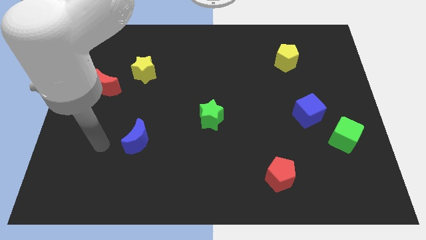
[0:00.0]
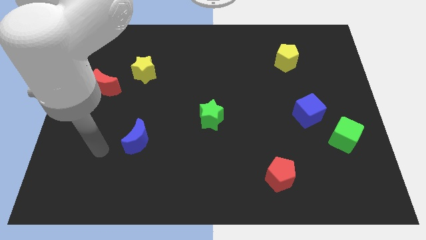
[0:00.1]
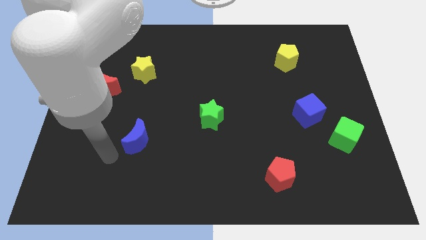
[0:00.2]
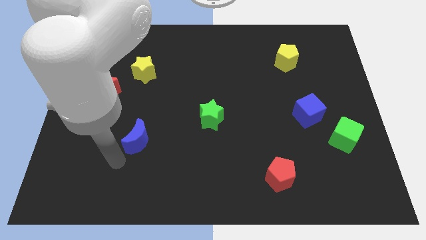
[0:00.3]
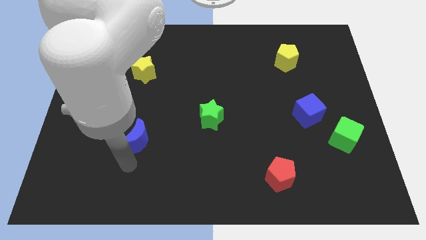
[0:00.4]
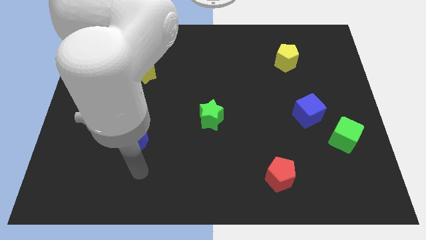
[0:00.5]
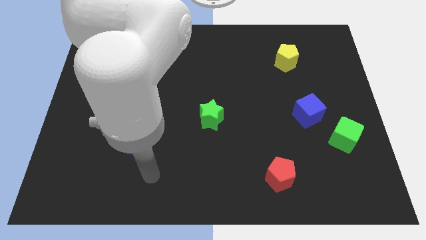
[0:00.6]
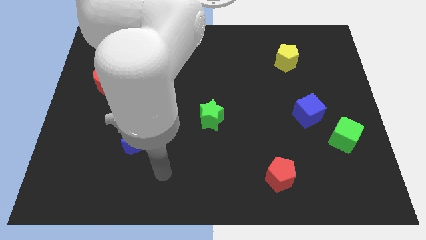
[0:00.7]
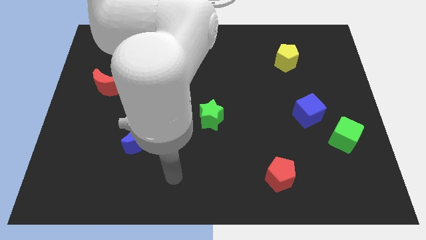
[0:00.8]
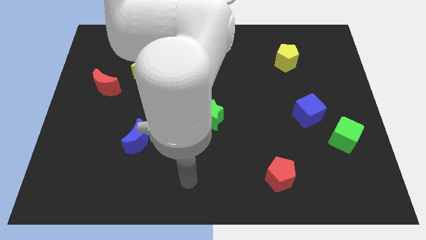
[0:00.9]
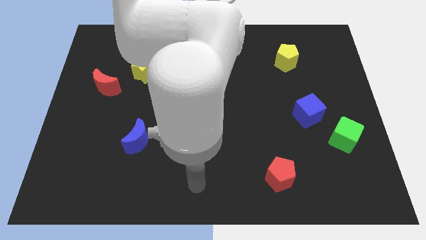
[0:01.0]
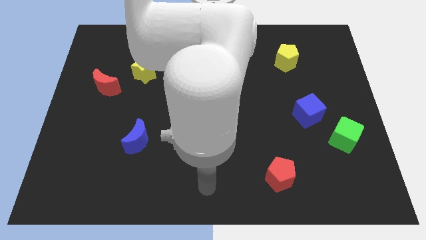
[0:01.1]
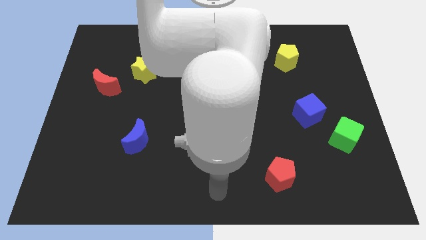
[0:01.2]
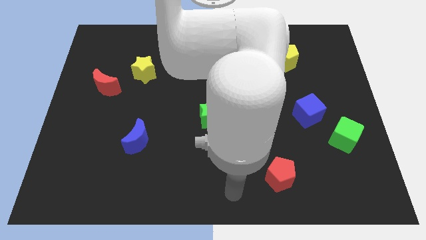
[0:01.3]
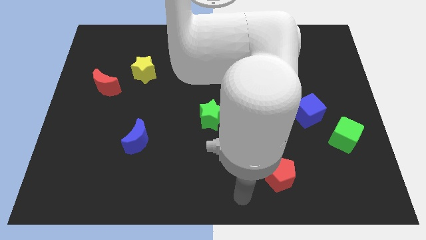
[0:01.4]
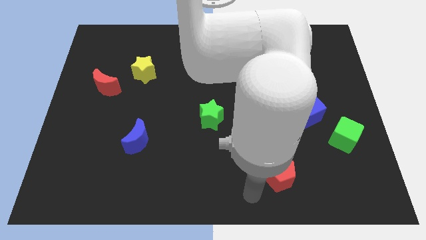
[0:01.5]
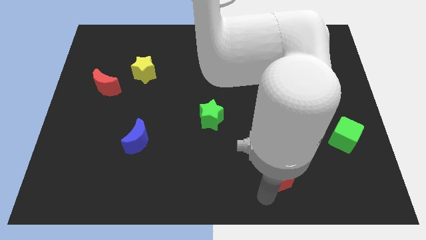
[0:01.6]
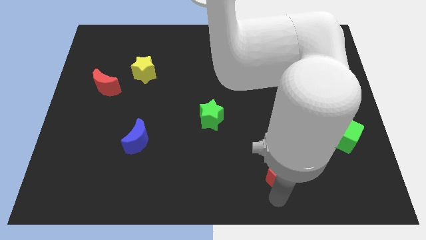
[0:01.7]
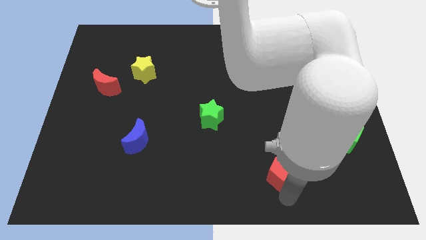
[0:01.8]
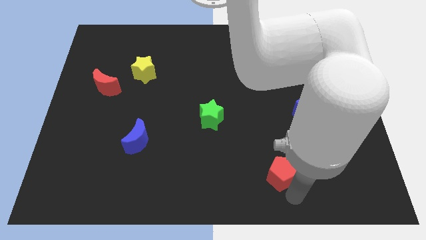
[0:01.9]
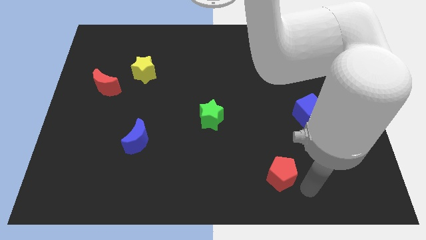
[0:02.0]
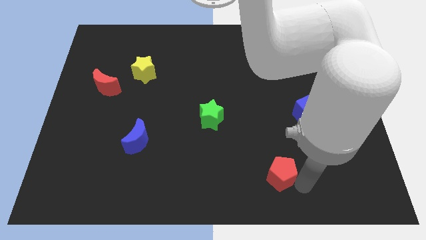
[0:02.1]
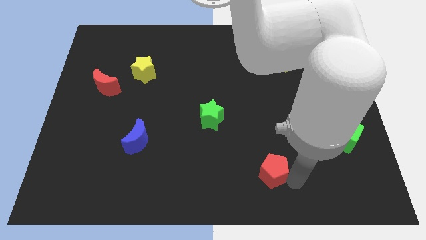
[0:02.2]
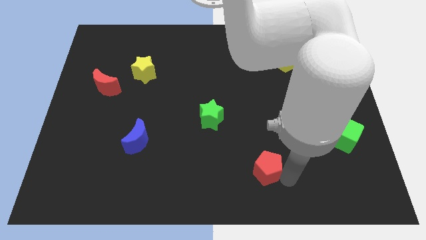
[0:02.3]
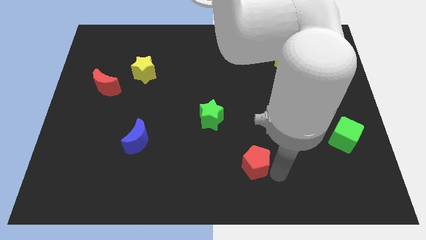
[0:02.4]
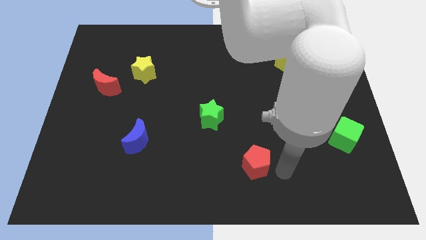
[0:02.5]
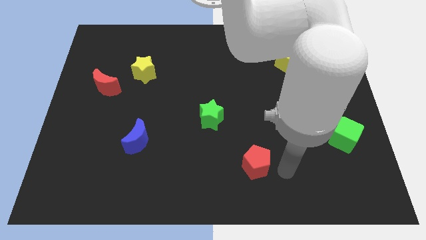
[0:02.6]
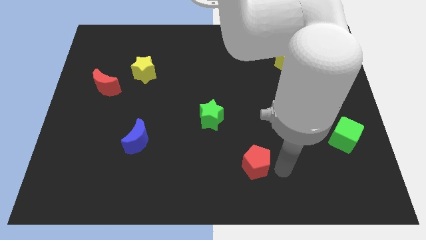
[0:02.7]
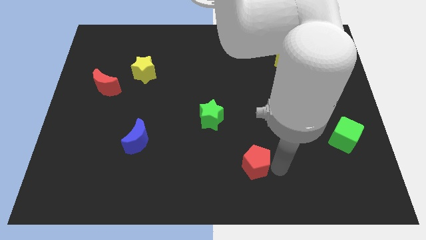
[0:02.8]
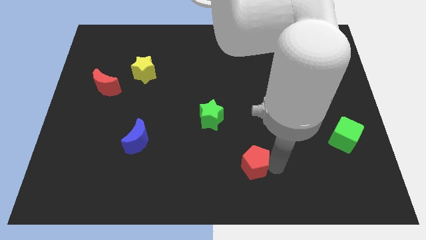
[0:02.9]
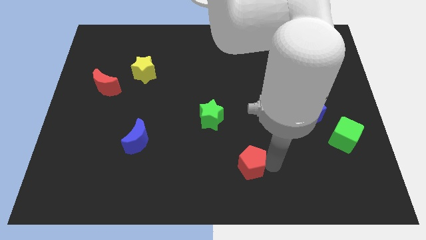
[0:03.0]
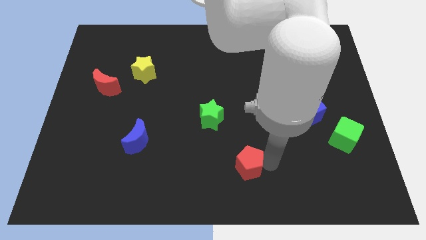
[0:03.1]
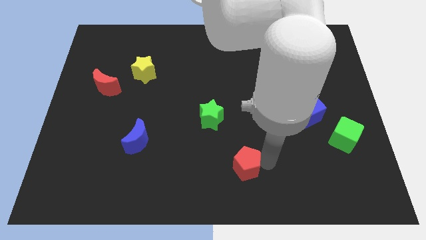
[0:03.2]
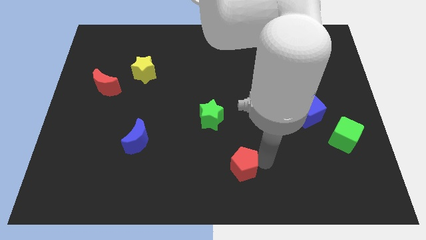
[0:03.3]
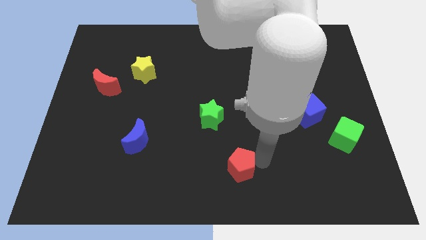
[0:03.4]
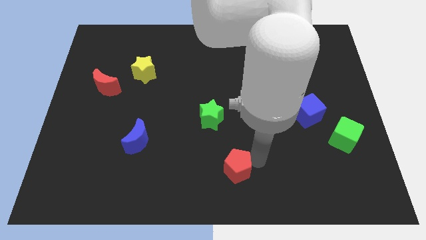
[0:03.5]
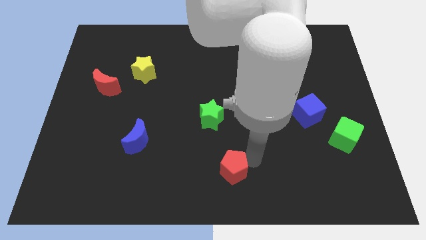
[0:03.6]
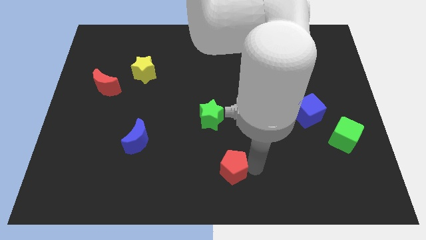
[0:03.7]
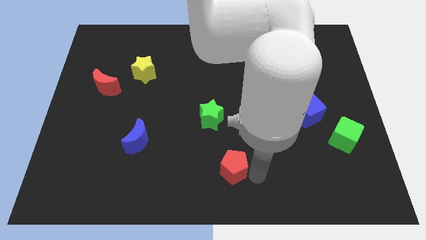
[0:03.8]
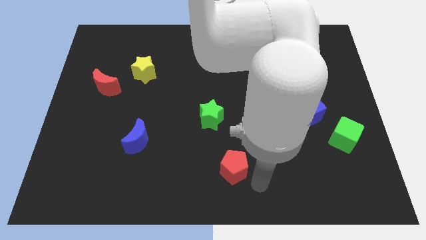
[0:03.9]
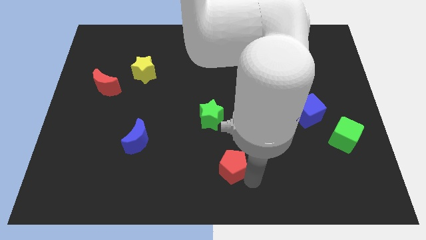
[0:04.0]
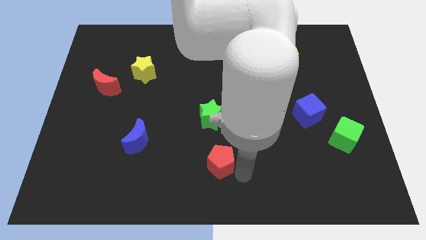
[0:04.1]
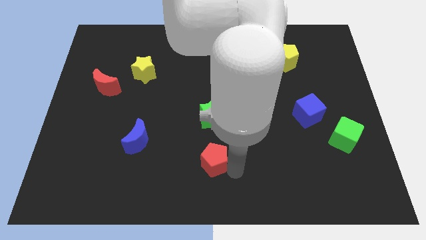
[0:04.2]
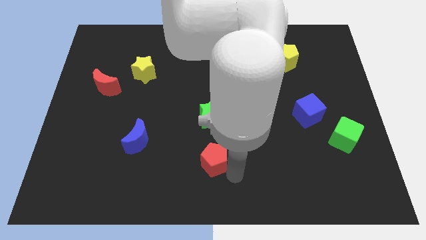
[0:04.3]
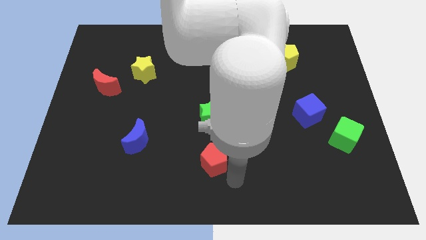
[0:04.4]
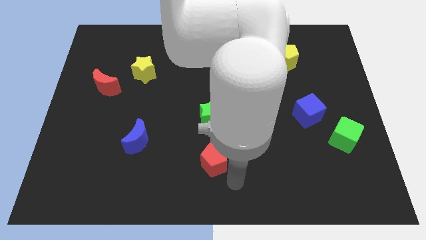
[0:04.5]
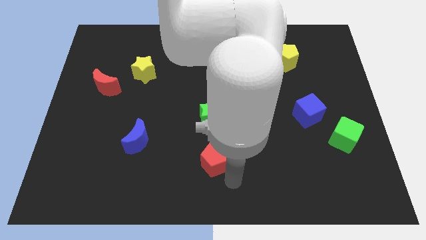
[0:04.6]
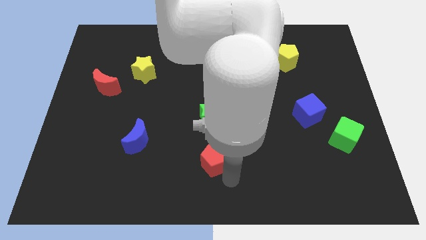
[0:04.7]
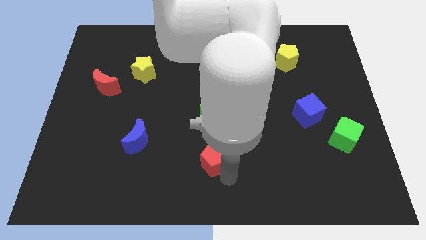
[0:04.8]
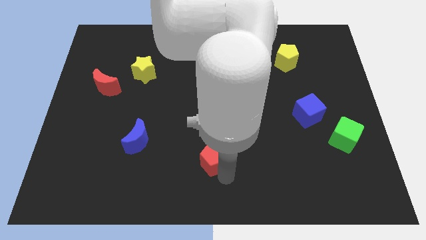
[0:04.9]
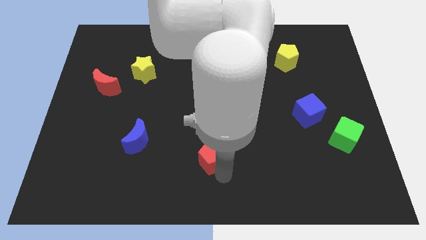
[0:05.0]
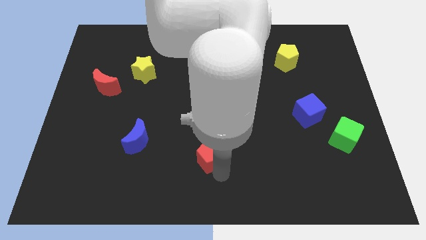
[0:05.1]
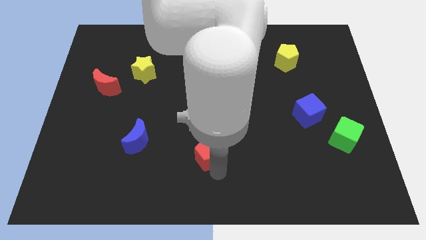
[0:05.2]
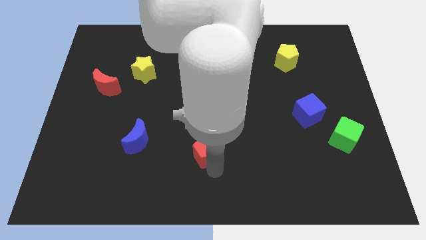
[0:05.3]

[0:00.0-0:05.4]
move the red pentagon right of the blue moon

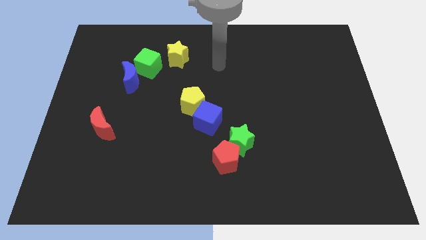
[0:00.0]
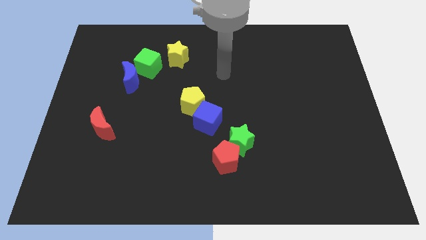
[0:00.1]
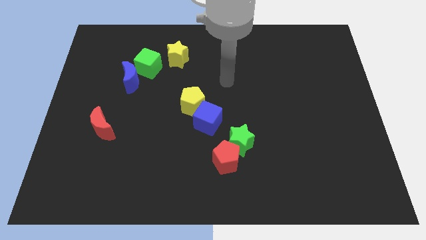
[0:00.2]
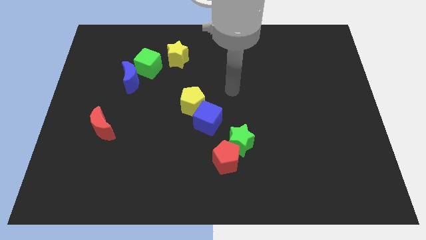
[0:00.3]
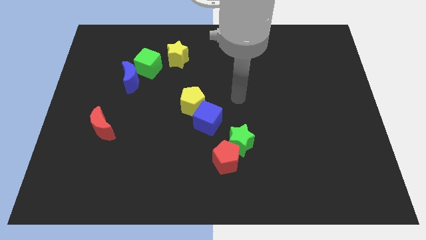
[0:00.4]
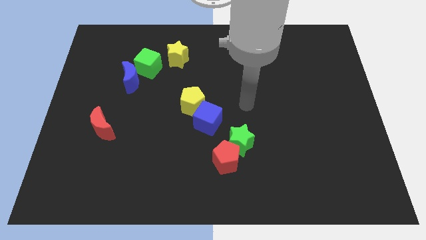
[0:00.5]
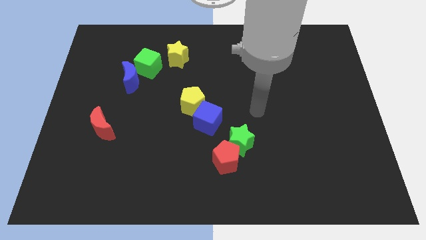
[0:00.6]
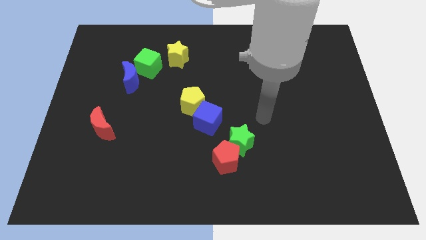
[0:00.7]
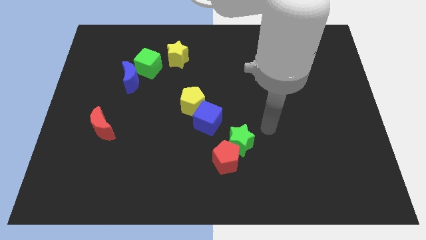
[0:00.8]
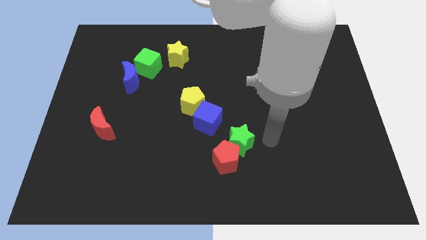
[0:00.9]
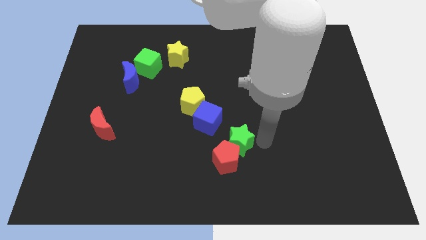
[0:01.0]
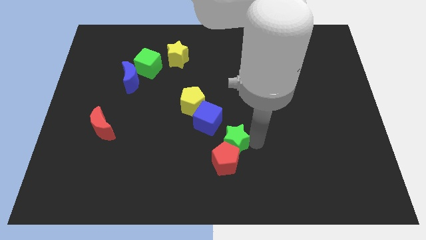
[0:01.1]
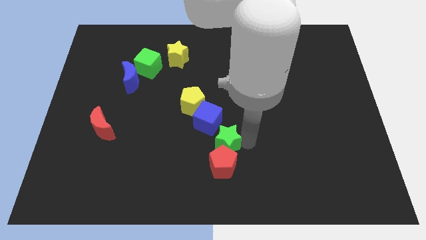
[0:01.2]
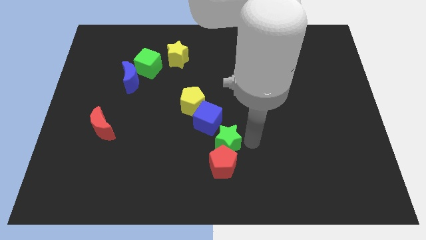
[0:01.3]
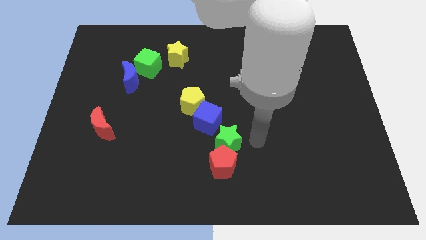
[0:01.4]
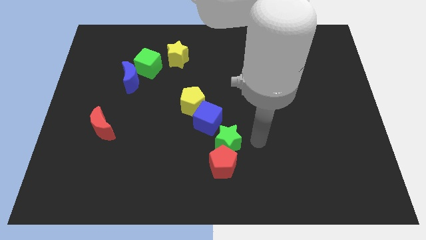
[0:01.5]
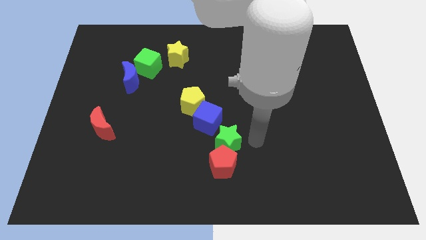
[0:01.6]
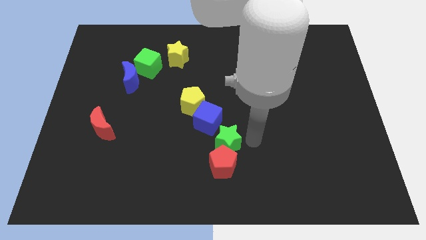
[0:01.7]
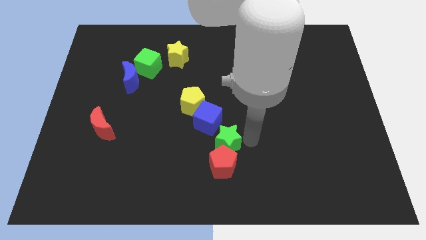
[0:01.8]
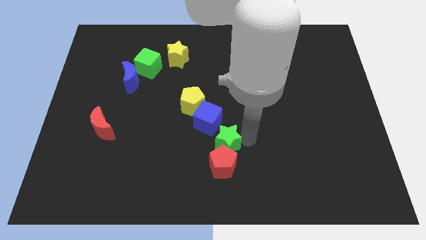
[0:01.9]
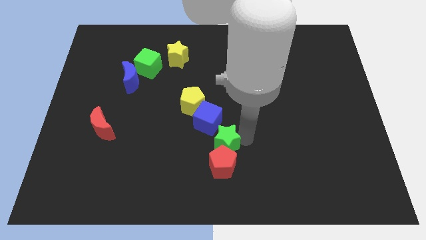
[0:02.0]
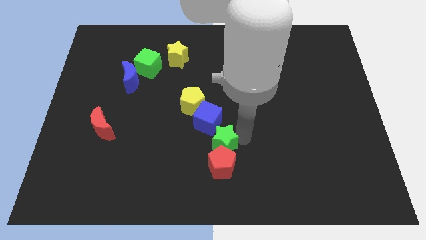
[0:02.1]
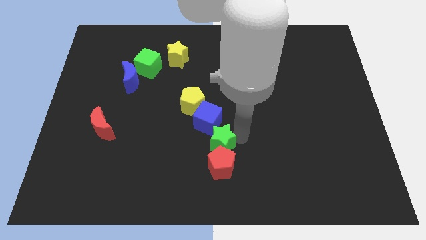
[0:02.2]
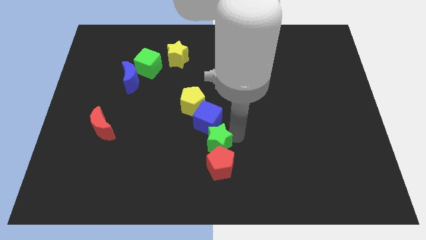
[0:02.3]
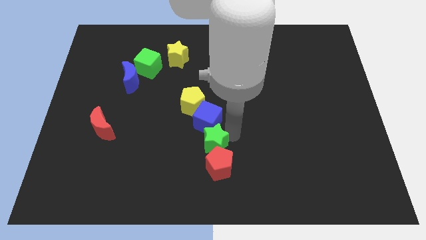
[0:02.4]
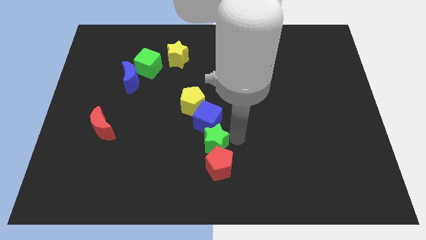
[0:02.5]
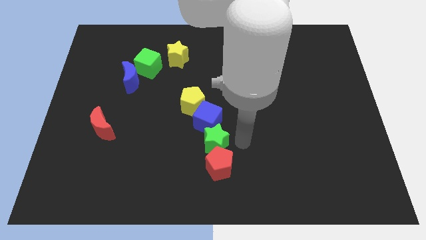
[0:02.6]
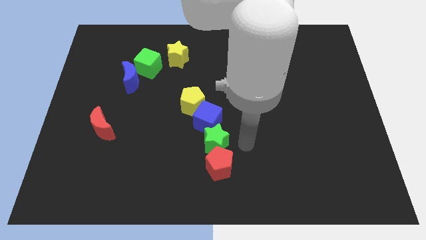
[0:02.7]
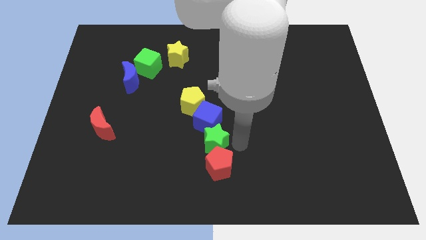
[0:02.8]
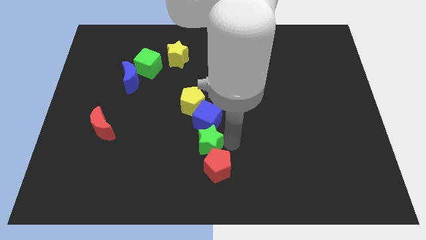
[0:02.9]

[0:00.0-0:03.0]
put the green star to the bottom left side of the blue cube
